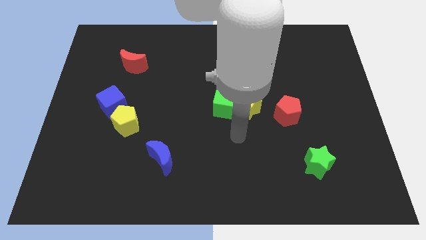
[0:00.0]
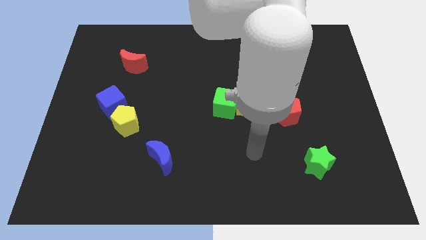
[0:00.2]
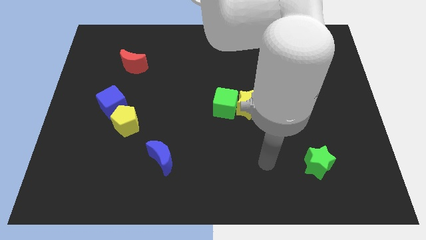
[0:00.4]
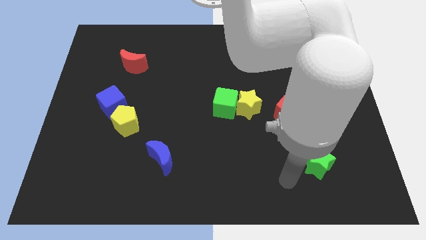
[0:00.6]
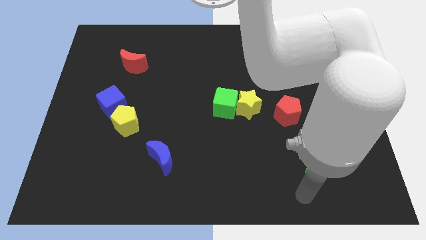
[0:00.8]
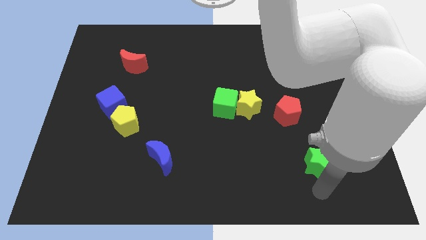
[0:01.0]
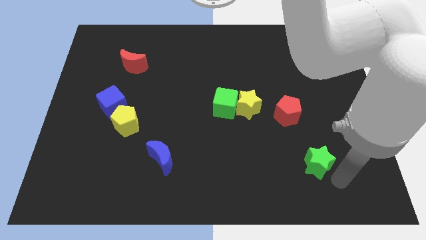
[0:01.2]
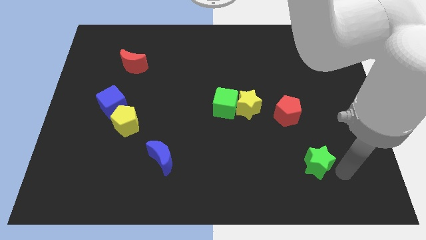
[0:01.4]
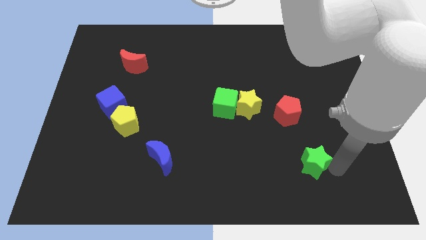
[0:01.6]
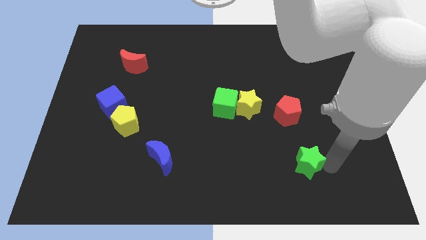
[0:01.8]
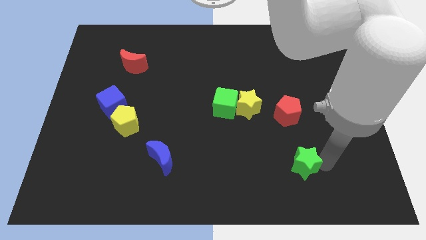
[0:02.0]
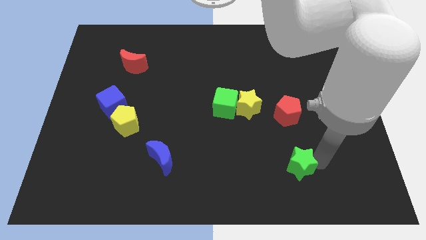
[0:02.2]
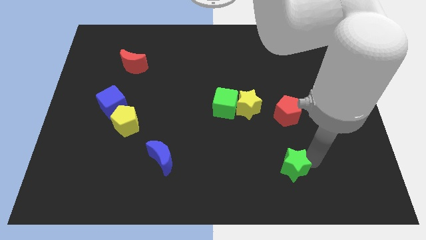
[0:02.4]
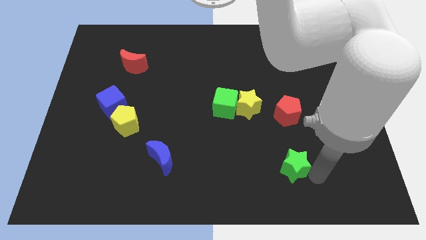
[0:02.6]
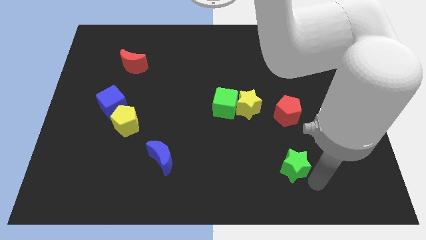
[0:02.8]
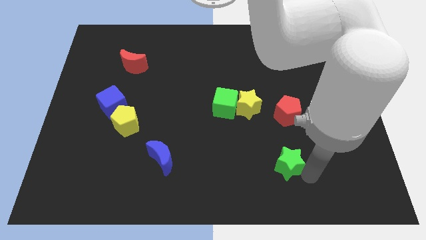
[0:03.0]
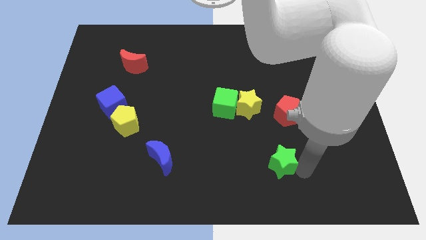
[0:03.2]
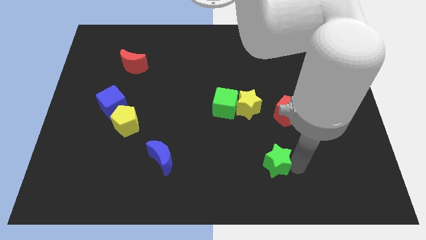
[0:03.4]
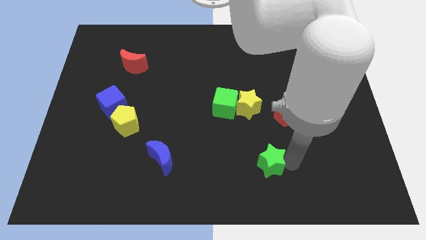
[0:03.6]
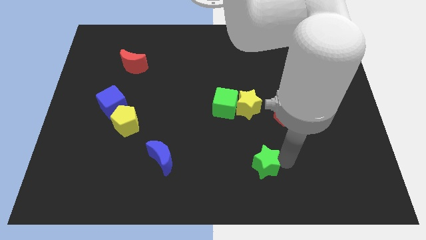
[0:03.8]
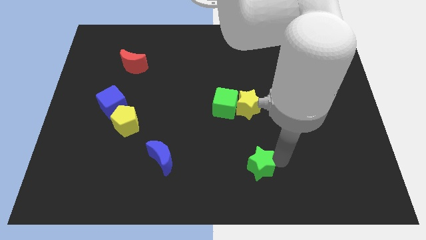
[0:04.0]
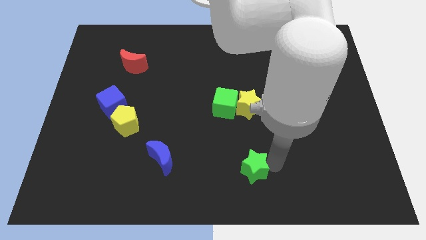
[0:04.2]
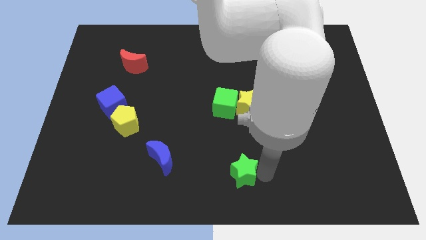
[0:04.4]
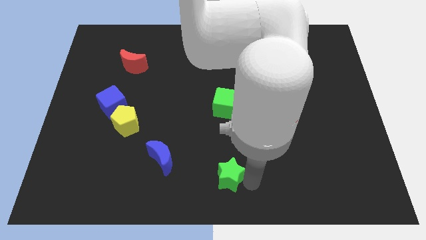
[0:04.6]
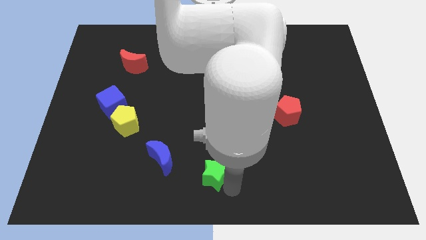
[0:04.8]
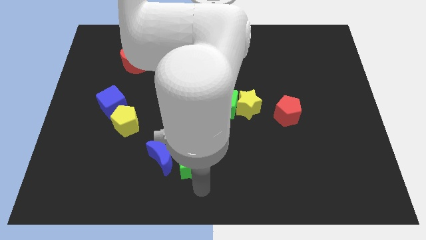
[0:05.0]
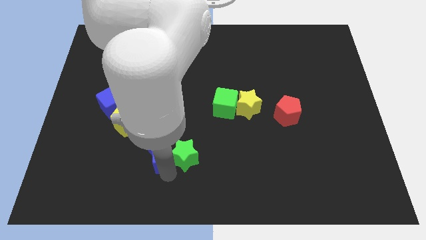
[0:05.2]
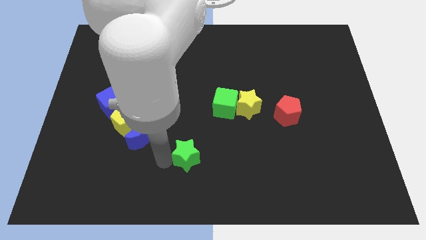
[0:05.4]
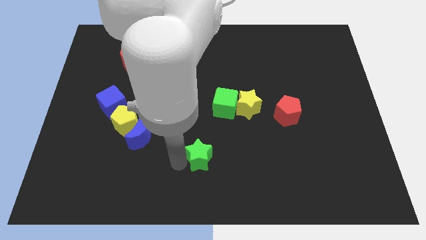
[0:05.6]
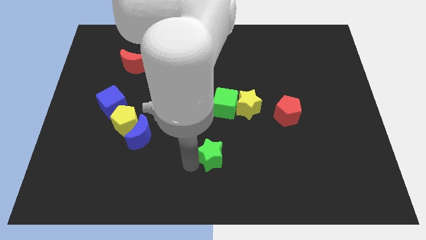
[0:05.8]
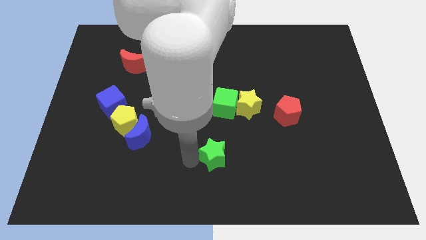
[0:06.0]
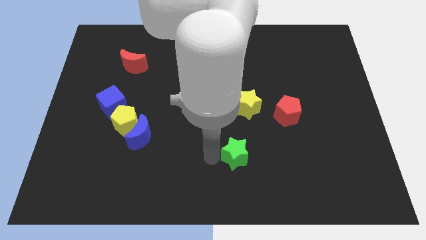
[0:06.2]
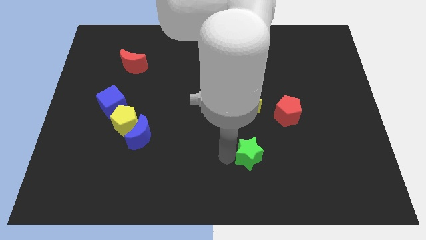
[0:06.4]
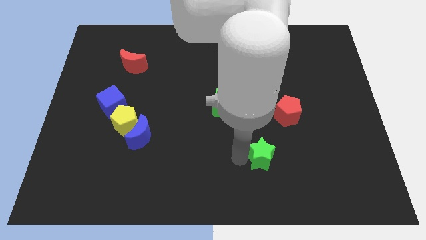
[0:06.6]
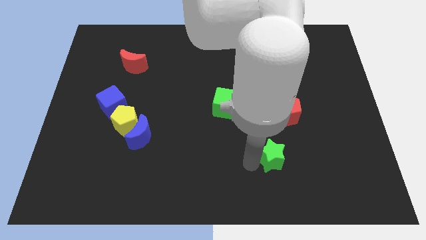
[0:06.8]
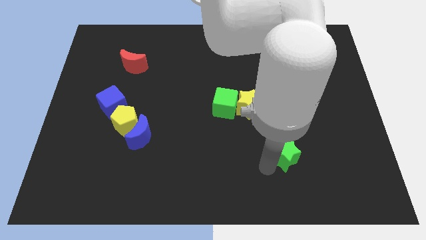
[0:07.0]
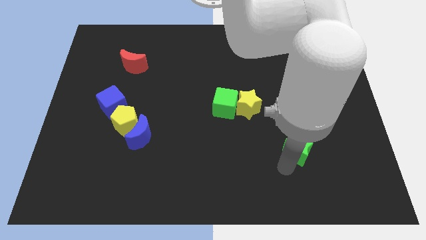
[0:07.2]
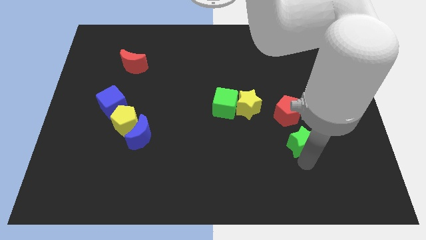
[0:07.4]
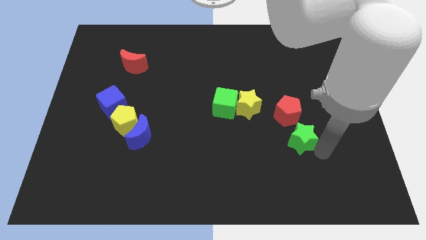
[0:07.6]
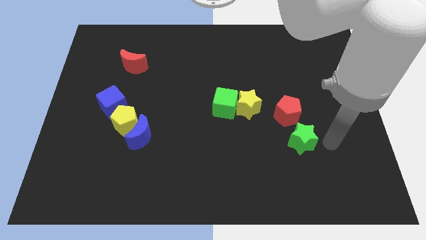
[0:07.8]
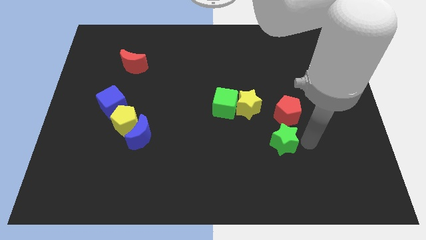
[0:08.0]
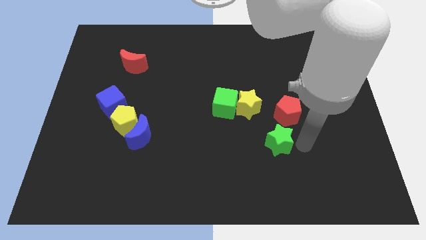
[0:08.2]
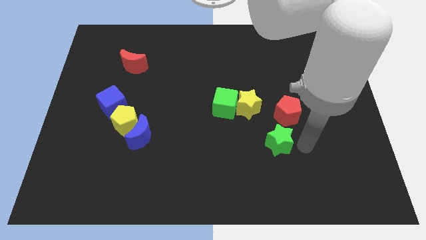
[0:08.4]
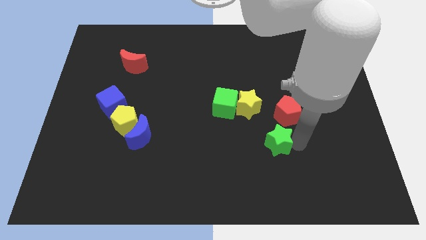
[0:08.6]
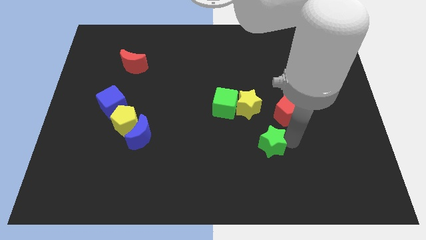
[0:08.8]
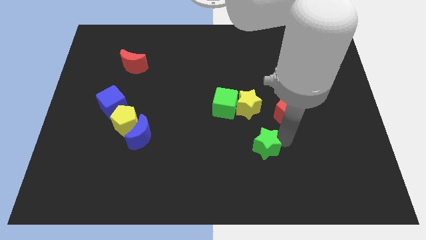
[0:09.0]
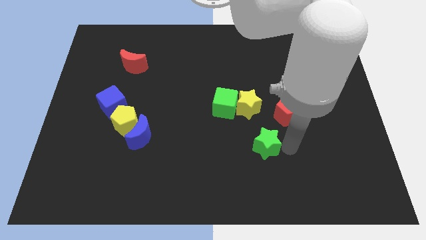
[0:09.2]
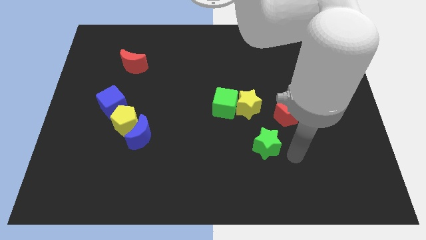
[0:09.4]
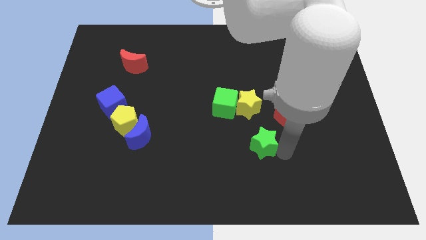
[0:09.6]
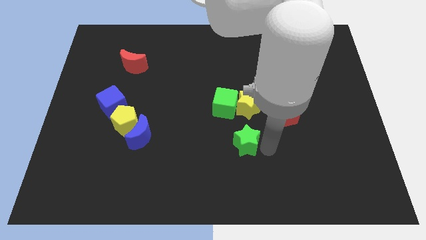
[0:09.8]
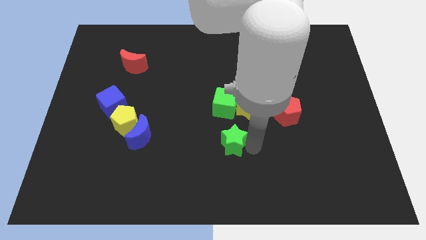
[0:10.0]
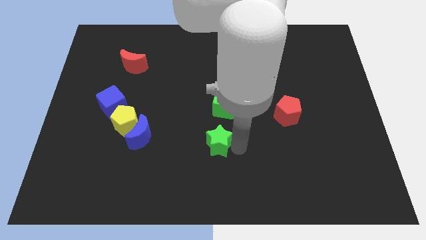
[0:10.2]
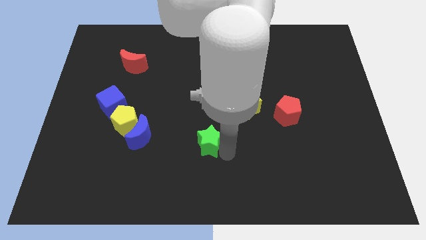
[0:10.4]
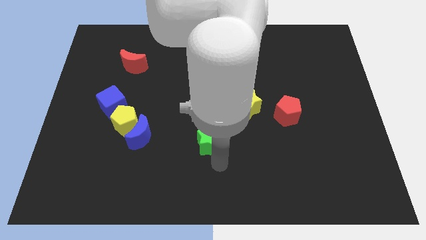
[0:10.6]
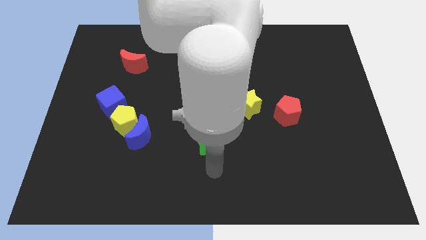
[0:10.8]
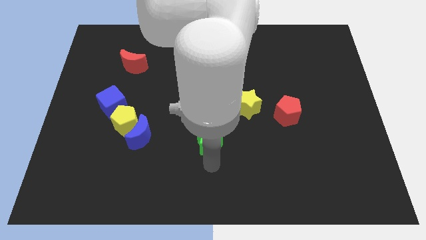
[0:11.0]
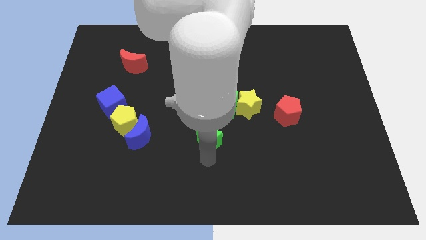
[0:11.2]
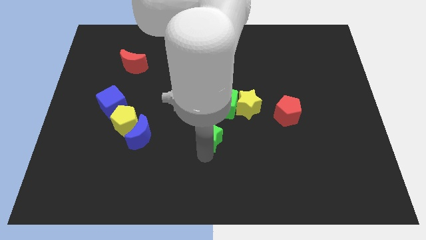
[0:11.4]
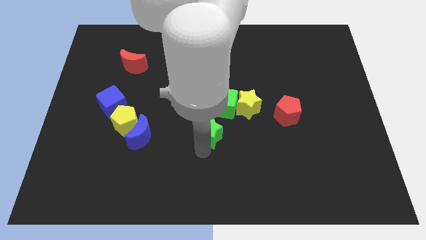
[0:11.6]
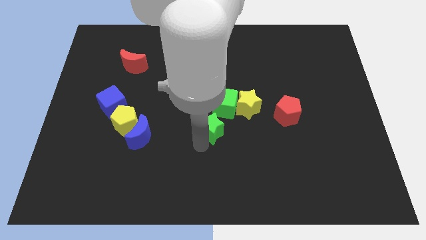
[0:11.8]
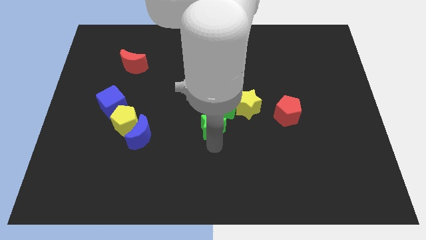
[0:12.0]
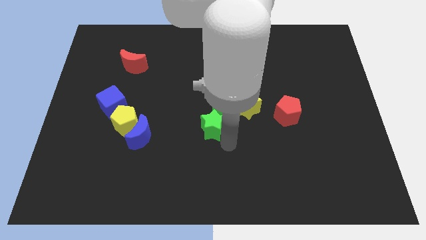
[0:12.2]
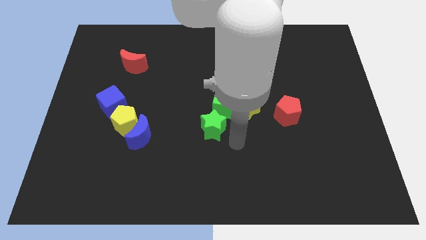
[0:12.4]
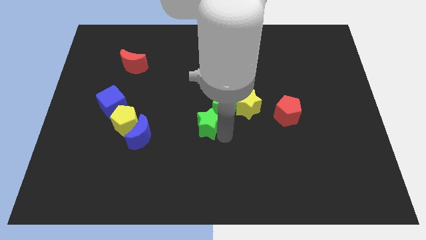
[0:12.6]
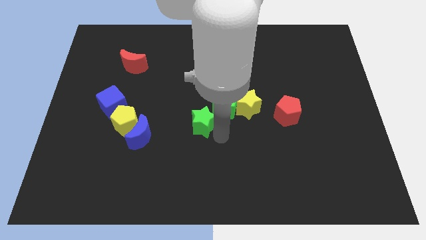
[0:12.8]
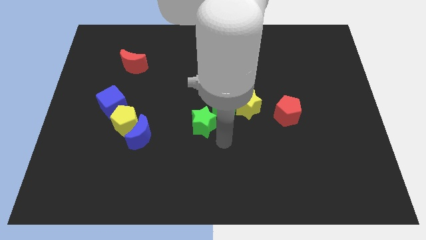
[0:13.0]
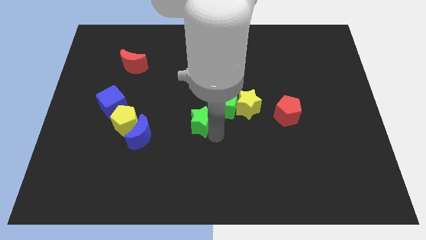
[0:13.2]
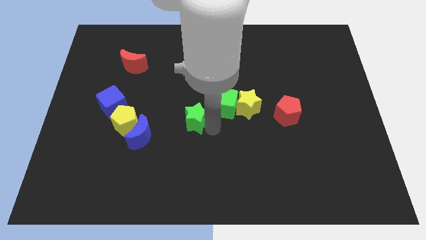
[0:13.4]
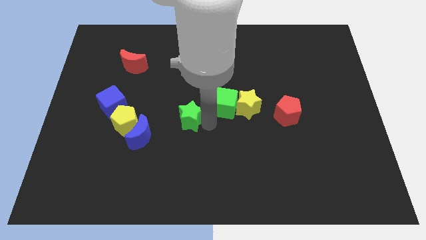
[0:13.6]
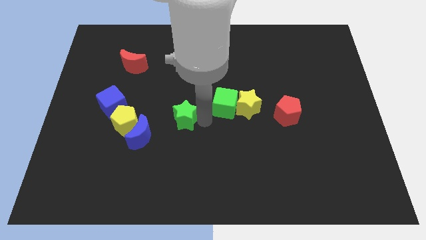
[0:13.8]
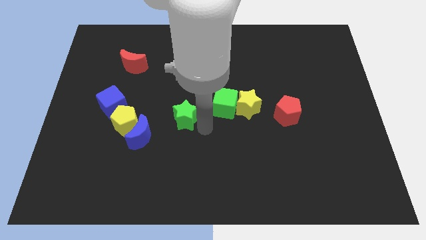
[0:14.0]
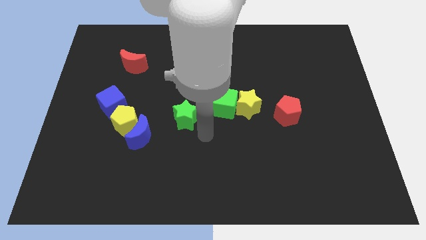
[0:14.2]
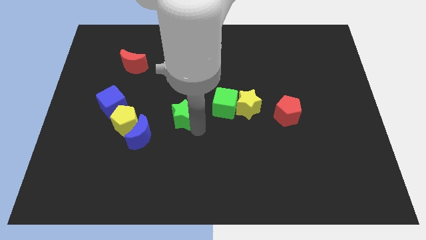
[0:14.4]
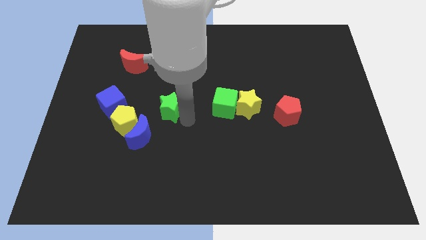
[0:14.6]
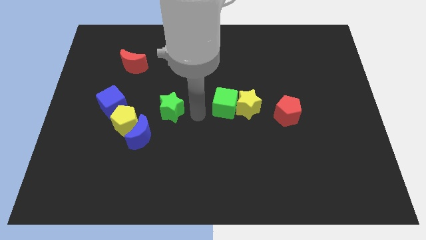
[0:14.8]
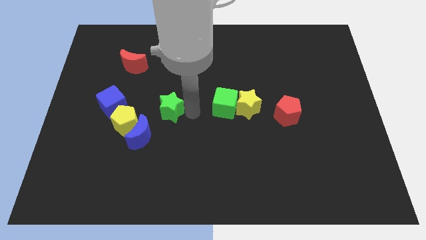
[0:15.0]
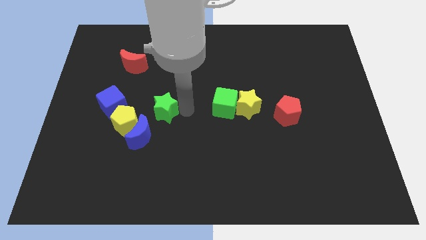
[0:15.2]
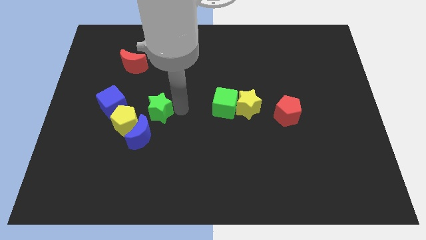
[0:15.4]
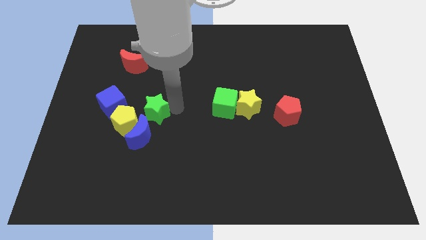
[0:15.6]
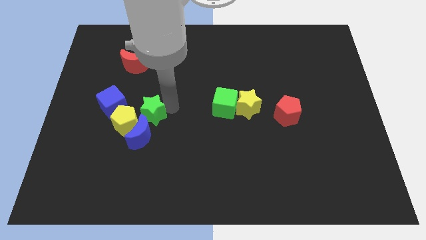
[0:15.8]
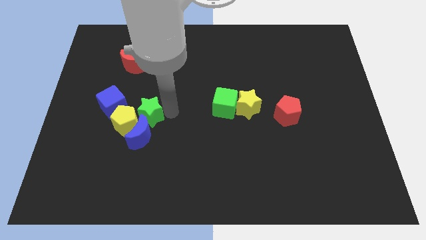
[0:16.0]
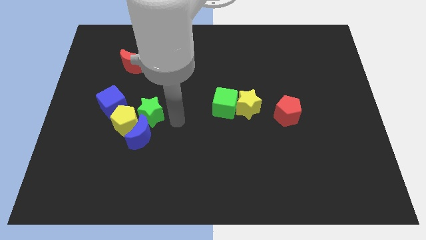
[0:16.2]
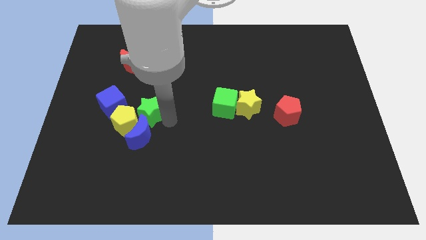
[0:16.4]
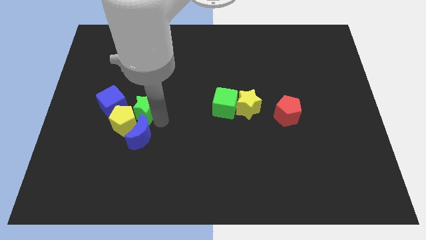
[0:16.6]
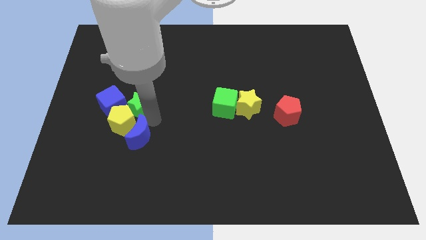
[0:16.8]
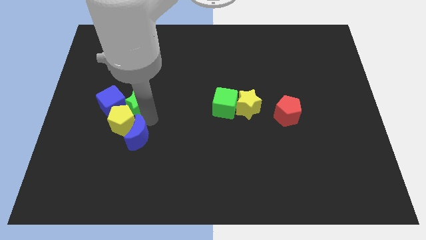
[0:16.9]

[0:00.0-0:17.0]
move the green star close to the blue cube
